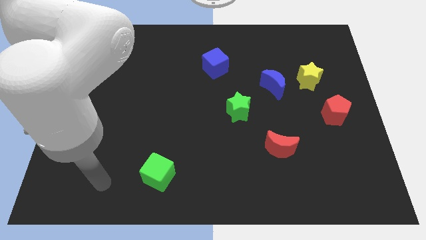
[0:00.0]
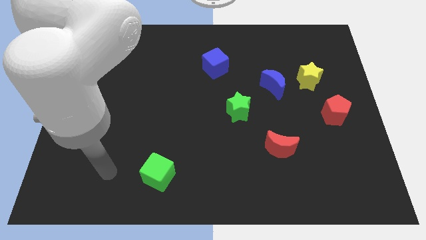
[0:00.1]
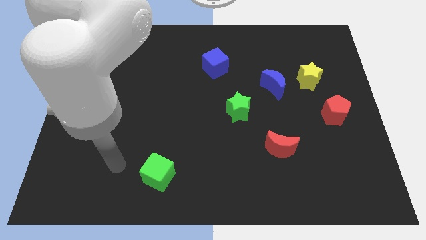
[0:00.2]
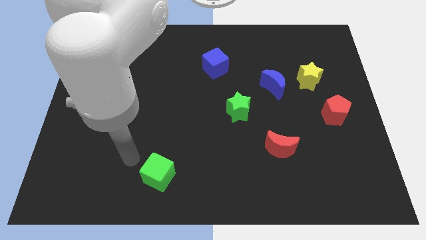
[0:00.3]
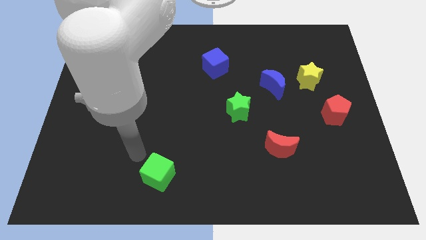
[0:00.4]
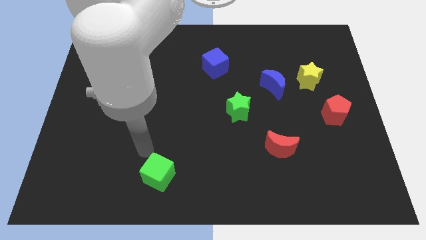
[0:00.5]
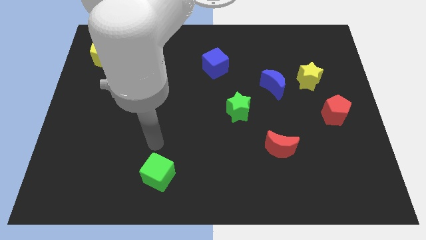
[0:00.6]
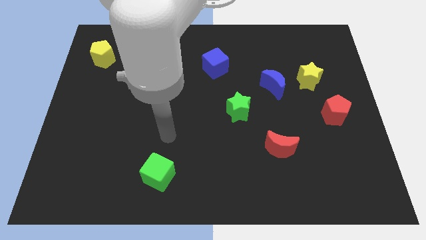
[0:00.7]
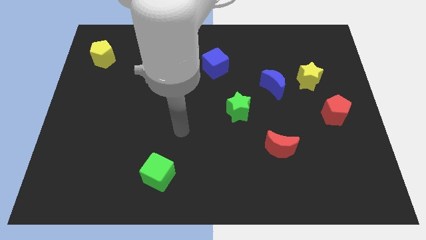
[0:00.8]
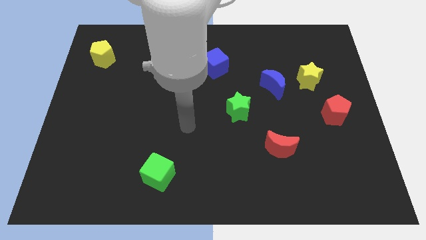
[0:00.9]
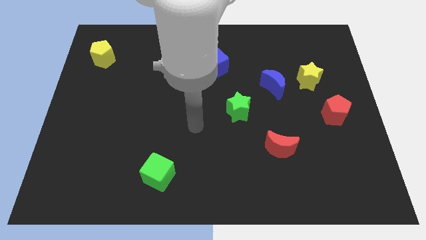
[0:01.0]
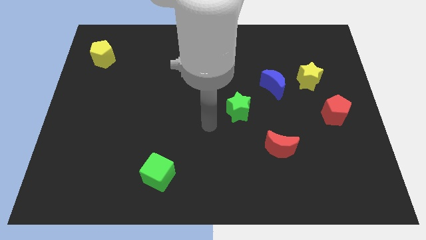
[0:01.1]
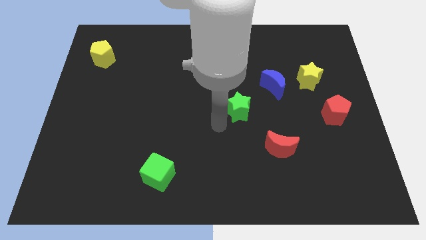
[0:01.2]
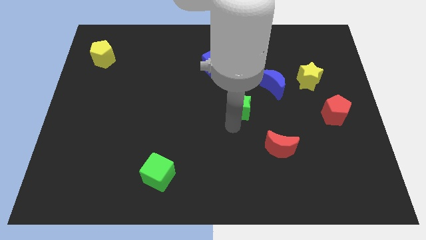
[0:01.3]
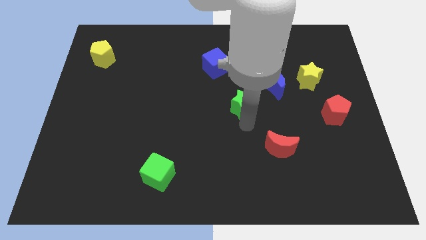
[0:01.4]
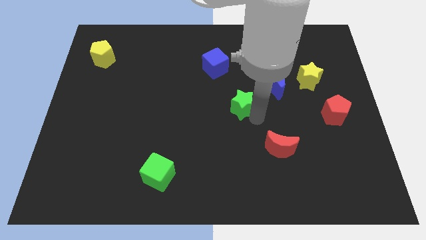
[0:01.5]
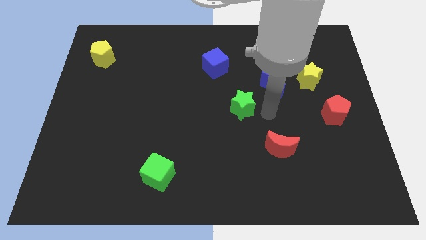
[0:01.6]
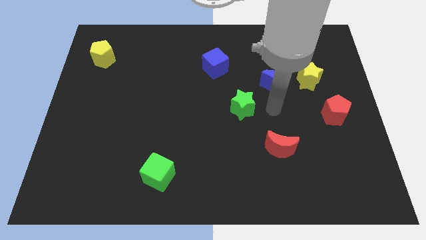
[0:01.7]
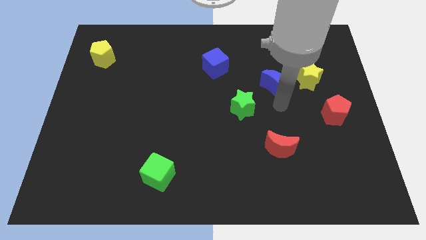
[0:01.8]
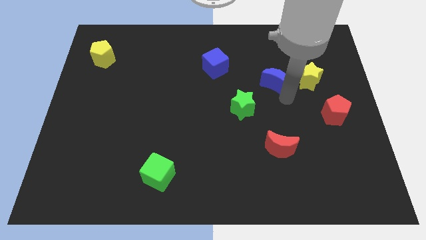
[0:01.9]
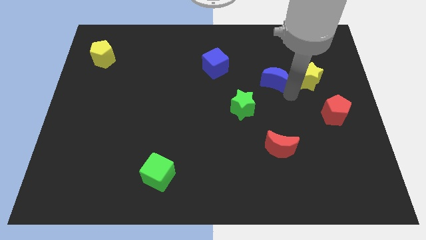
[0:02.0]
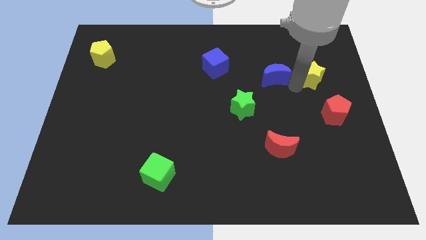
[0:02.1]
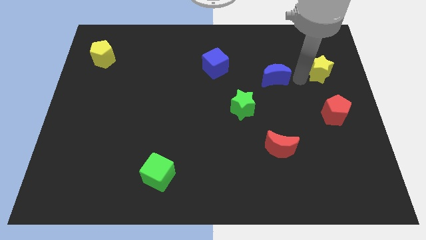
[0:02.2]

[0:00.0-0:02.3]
pull the blue moon apart from the yellow star

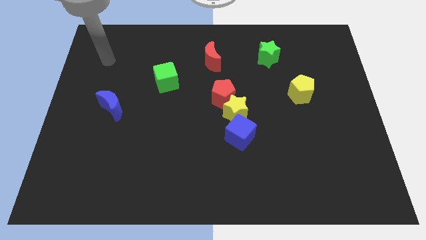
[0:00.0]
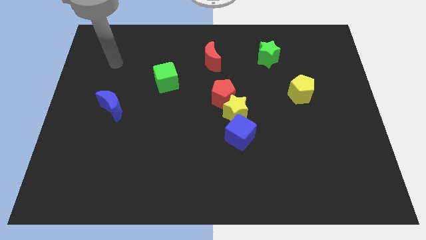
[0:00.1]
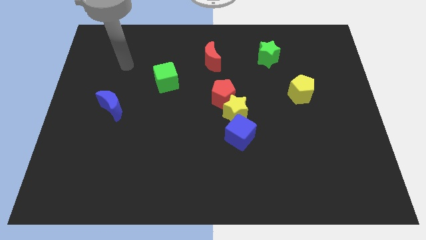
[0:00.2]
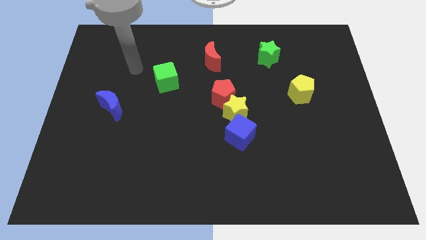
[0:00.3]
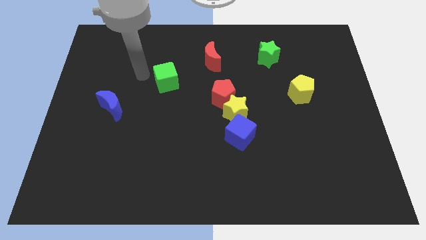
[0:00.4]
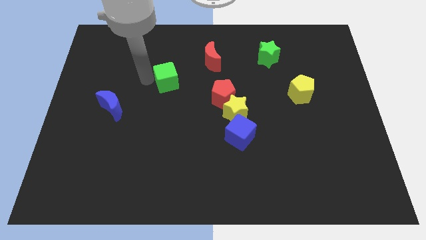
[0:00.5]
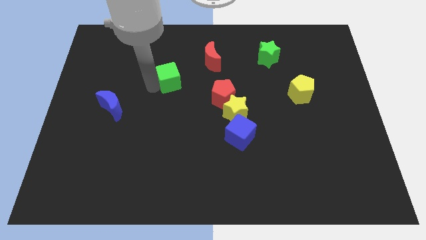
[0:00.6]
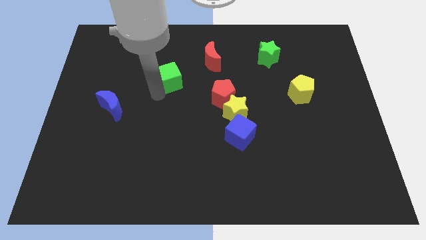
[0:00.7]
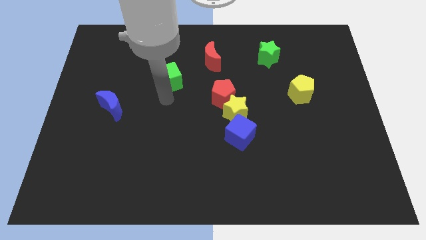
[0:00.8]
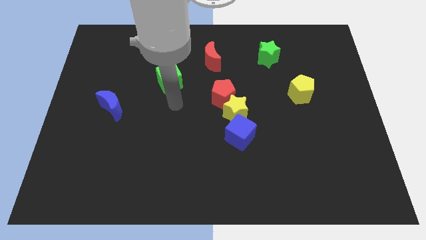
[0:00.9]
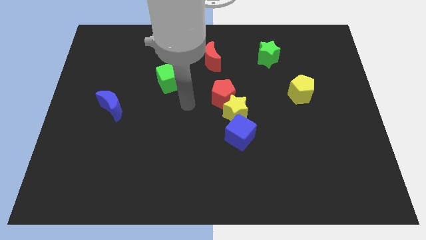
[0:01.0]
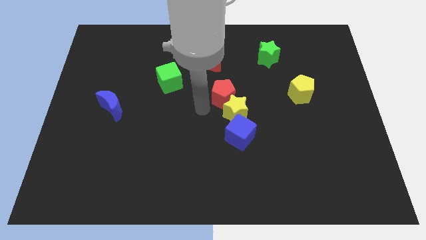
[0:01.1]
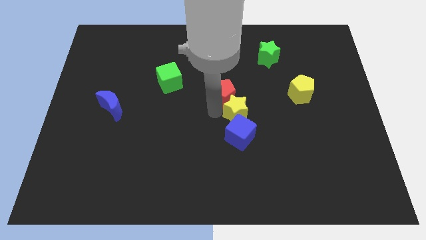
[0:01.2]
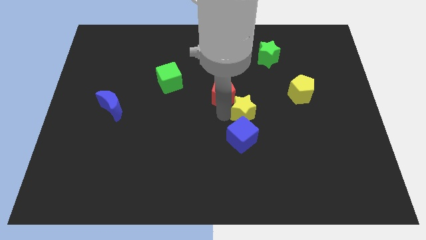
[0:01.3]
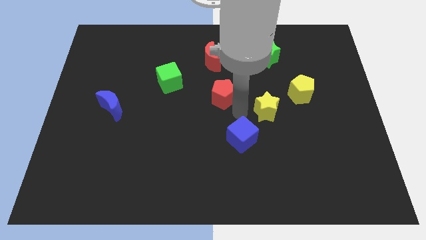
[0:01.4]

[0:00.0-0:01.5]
separate the red pentagon from the yellow star

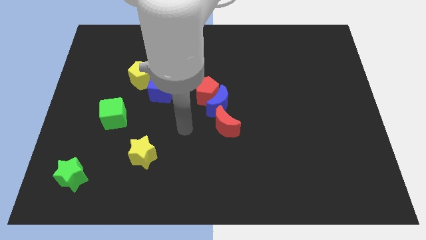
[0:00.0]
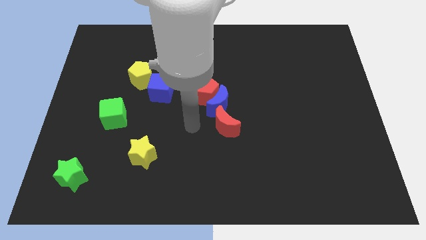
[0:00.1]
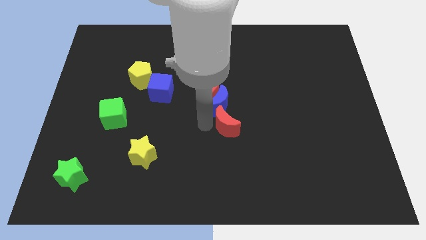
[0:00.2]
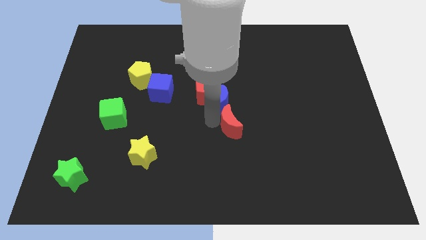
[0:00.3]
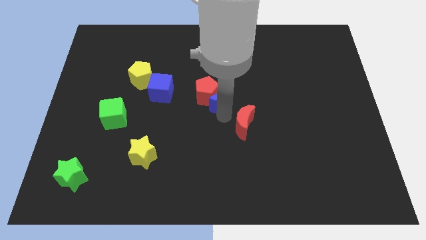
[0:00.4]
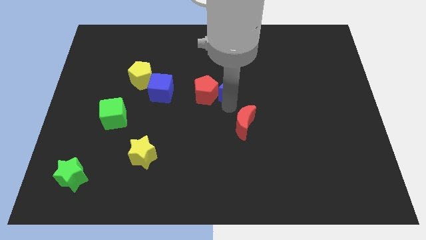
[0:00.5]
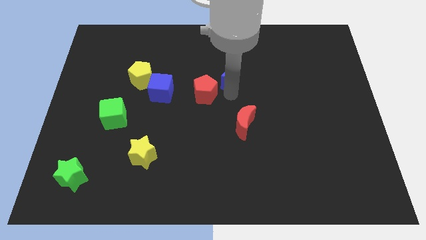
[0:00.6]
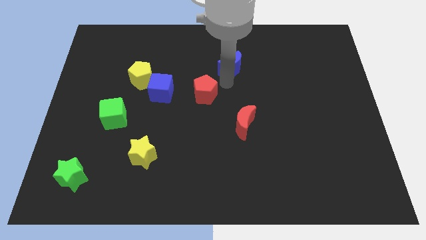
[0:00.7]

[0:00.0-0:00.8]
separate the red pentagon from the blue moon

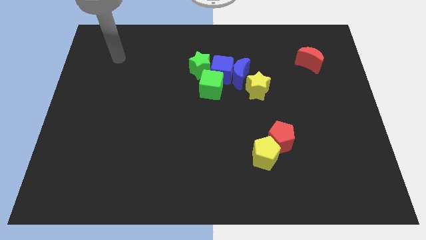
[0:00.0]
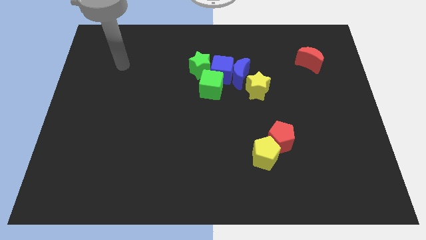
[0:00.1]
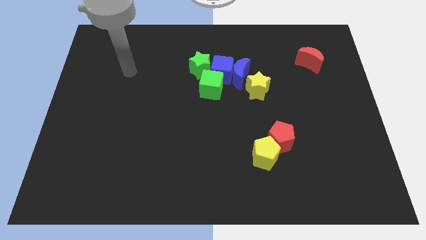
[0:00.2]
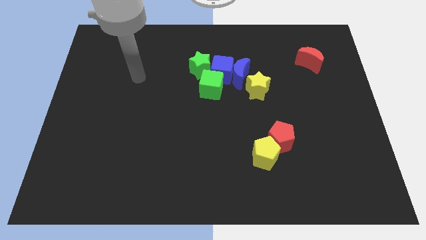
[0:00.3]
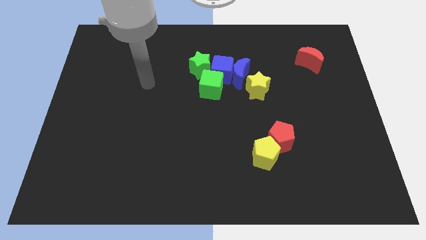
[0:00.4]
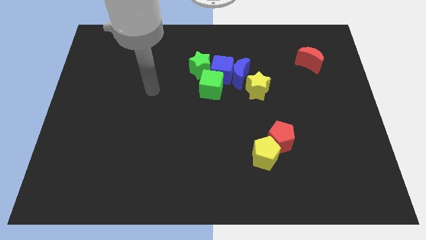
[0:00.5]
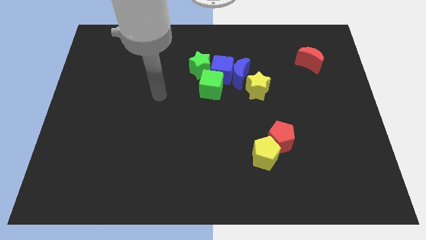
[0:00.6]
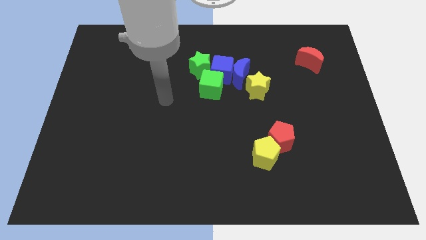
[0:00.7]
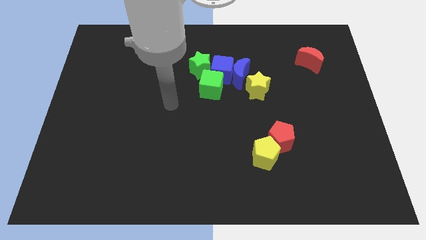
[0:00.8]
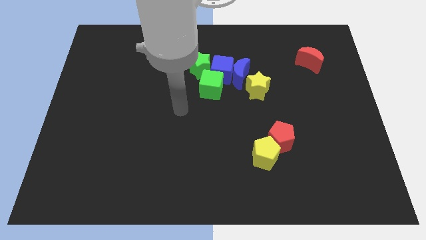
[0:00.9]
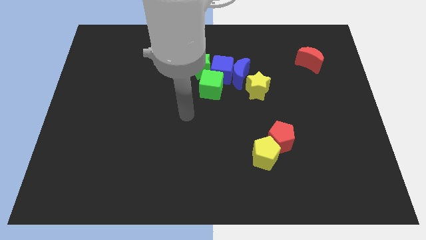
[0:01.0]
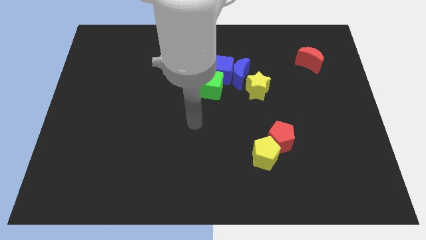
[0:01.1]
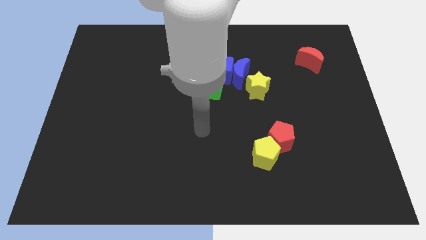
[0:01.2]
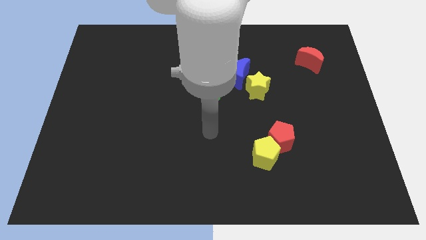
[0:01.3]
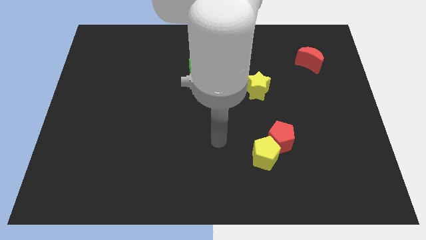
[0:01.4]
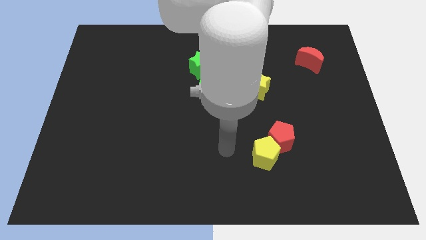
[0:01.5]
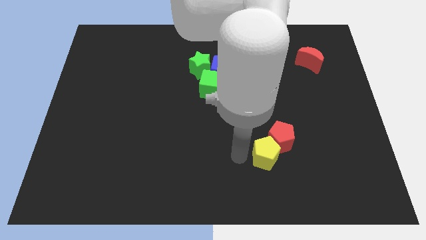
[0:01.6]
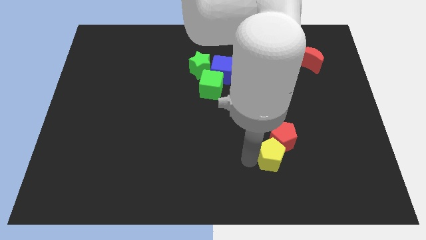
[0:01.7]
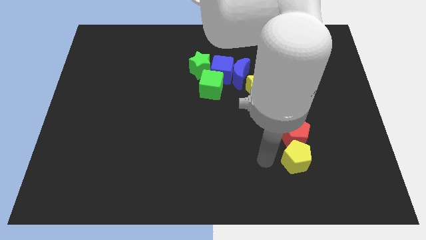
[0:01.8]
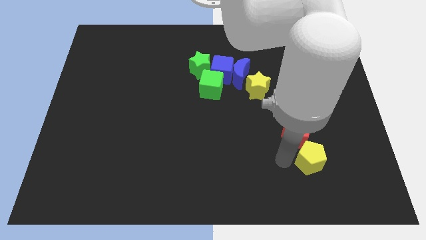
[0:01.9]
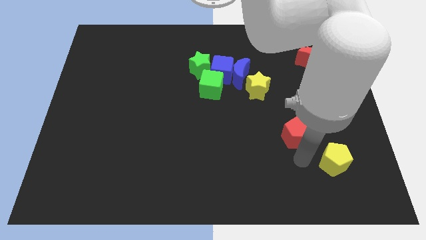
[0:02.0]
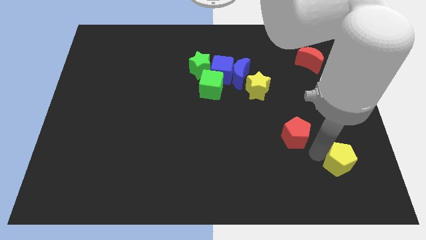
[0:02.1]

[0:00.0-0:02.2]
separate the red pentagon from the yellow pentagon

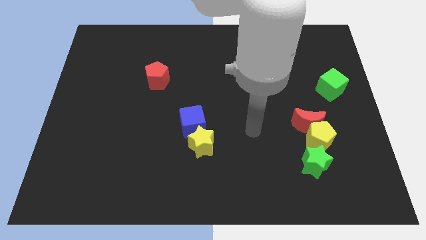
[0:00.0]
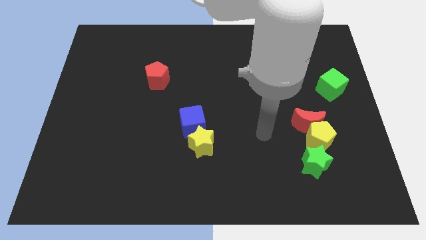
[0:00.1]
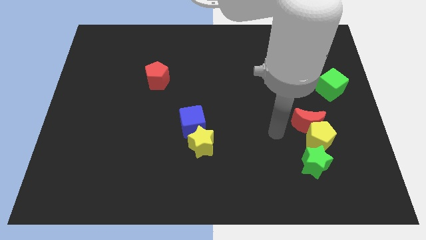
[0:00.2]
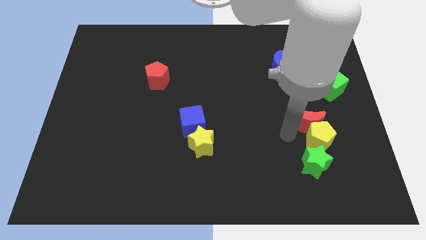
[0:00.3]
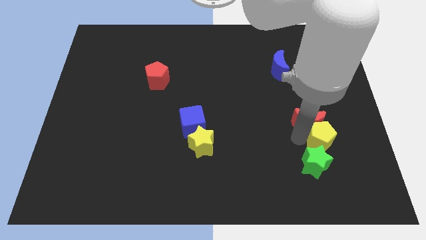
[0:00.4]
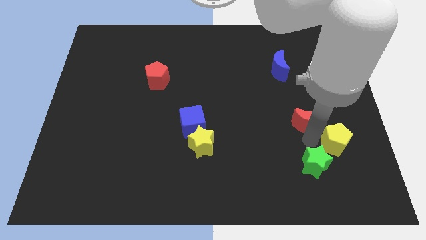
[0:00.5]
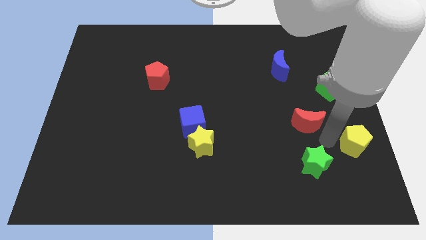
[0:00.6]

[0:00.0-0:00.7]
separate the red moon from the yellow pentagon

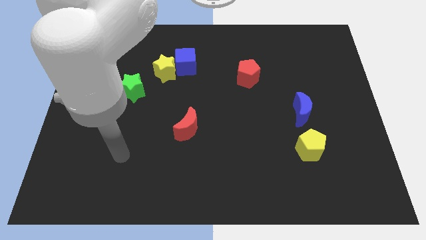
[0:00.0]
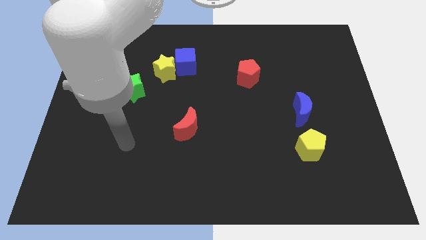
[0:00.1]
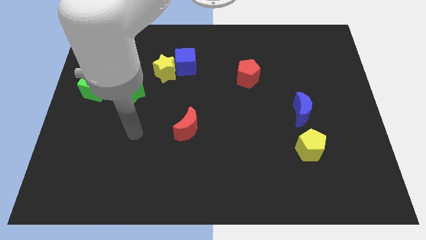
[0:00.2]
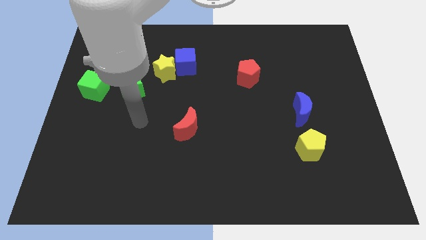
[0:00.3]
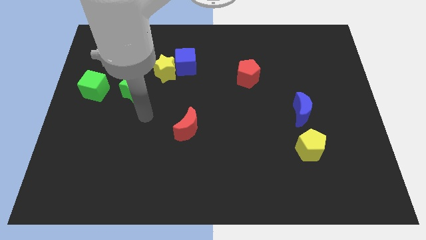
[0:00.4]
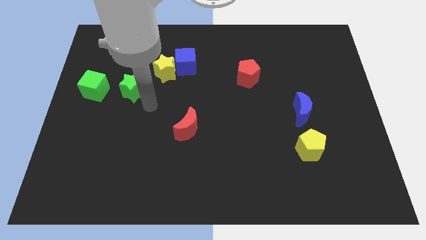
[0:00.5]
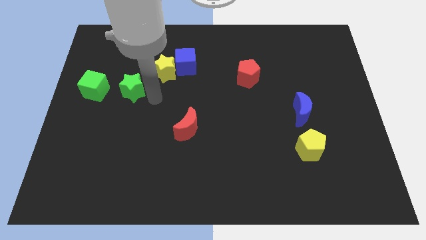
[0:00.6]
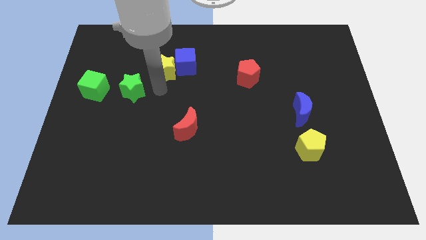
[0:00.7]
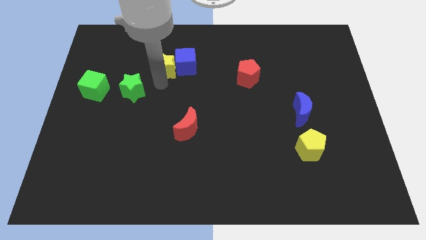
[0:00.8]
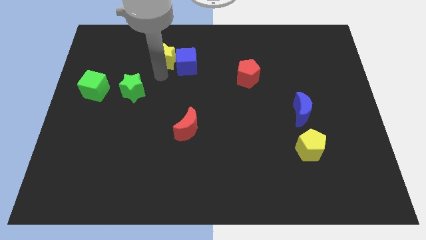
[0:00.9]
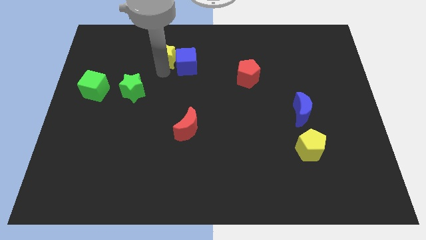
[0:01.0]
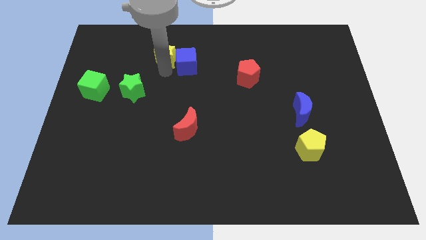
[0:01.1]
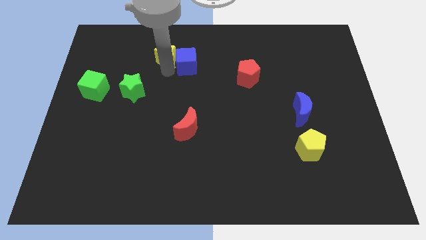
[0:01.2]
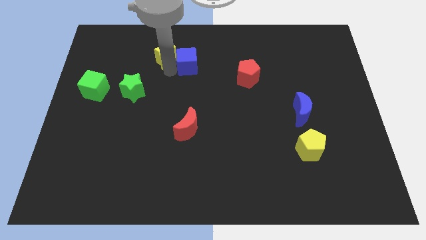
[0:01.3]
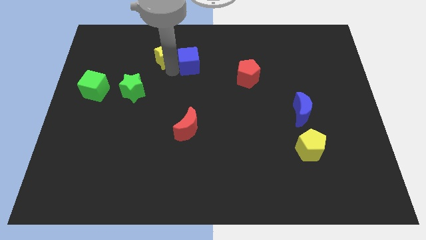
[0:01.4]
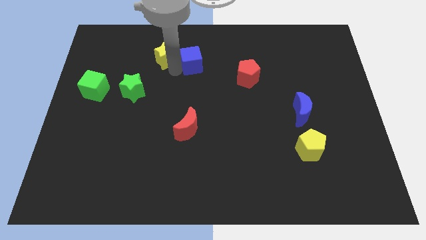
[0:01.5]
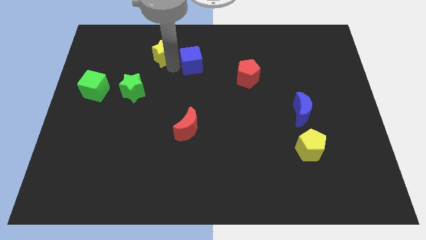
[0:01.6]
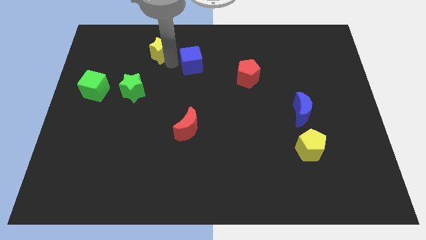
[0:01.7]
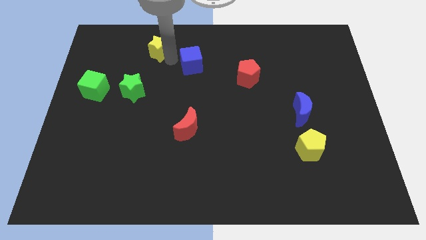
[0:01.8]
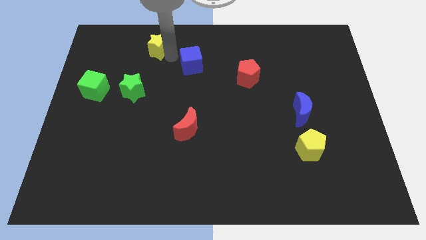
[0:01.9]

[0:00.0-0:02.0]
pull the blue cube apart from the yellow star

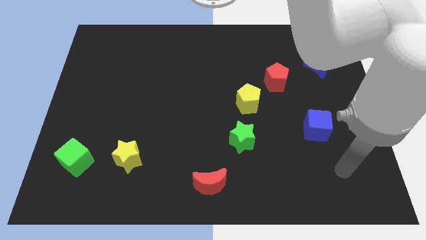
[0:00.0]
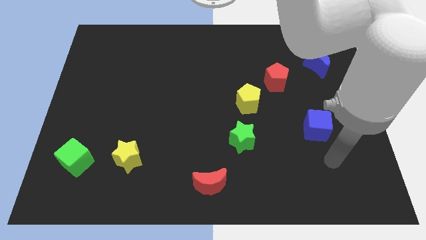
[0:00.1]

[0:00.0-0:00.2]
pull the red pentagon apart from the yellow pentagon
